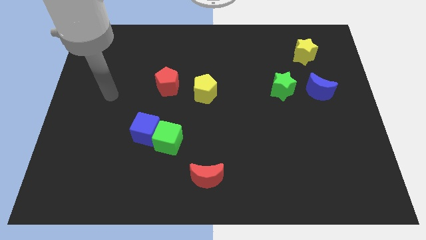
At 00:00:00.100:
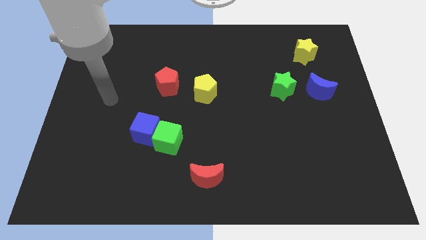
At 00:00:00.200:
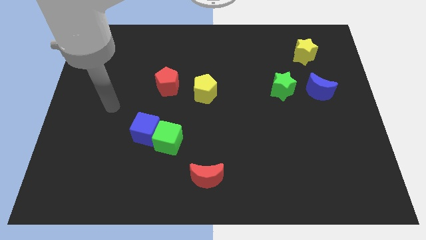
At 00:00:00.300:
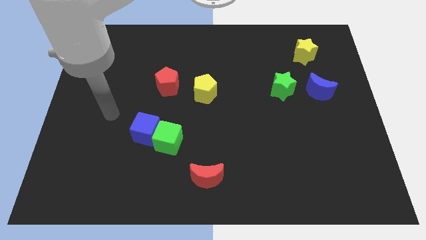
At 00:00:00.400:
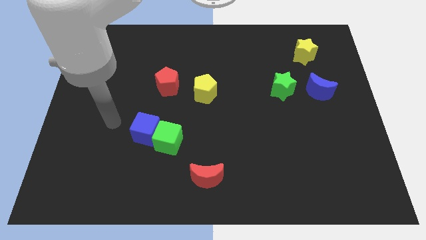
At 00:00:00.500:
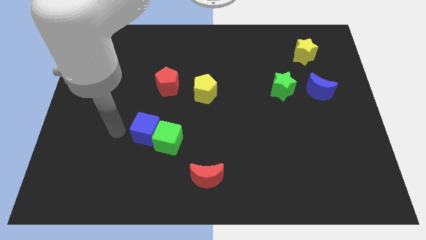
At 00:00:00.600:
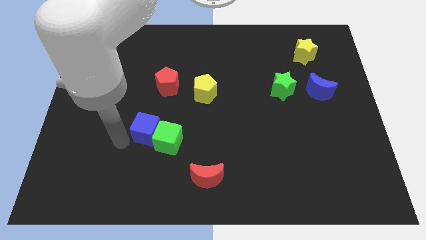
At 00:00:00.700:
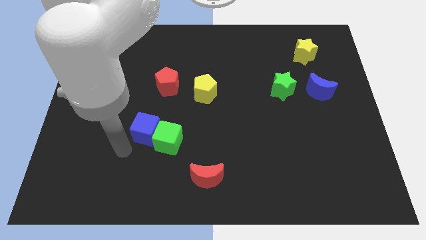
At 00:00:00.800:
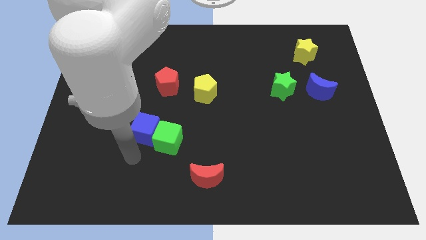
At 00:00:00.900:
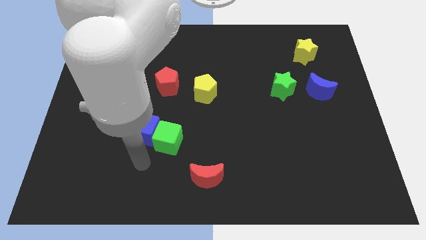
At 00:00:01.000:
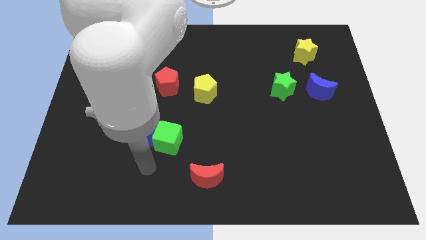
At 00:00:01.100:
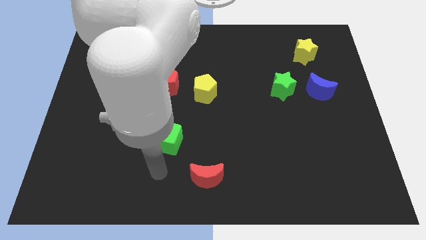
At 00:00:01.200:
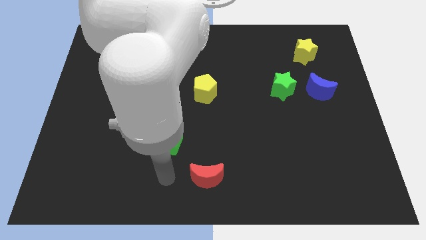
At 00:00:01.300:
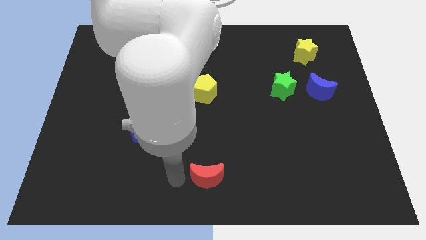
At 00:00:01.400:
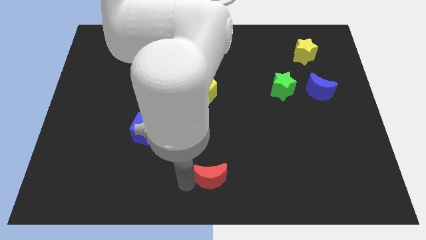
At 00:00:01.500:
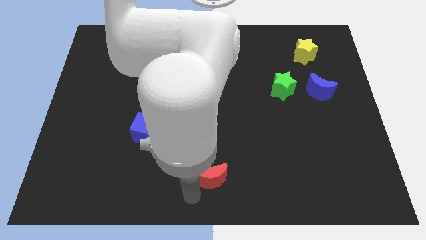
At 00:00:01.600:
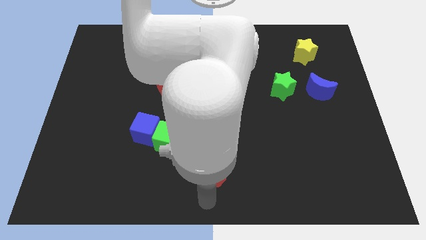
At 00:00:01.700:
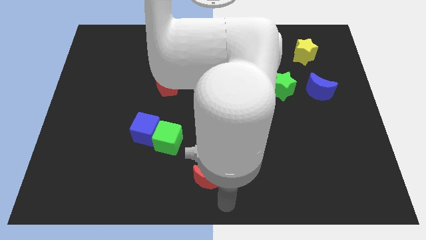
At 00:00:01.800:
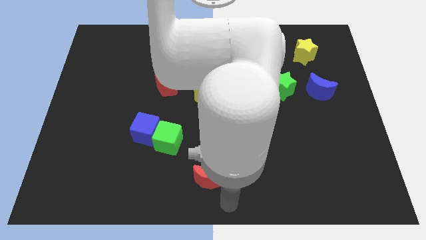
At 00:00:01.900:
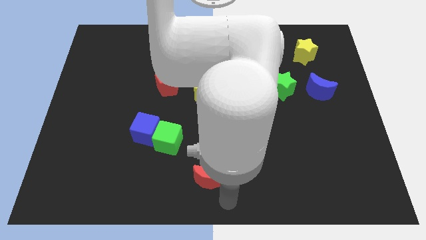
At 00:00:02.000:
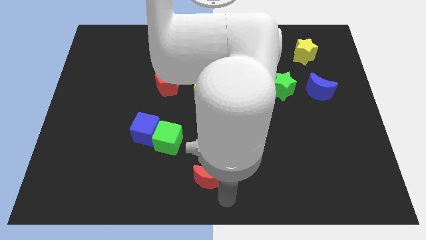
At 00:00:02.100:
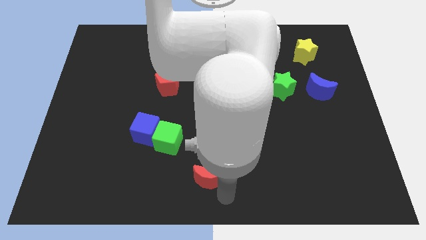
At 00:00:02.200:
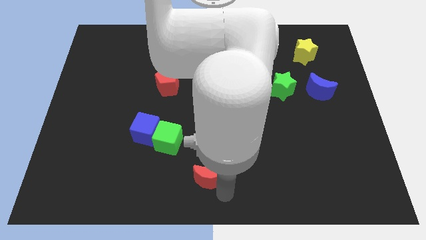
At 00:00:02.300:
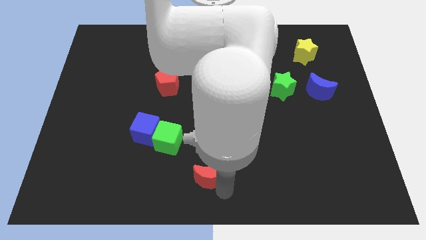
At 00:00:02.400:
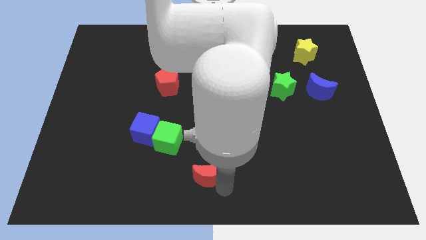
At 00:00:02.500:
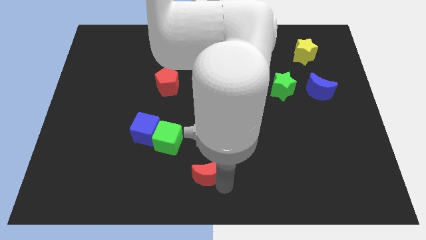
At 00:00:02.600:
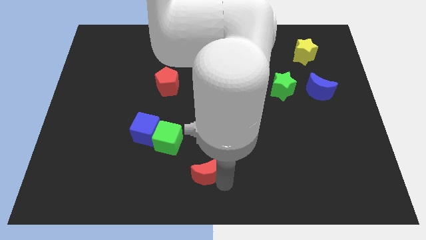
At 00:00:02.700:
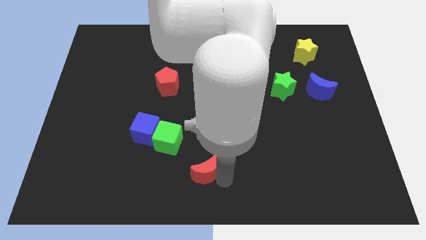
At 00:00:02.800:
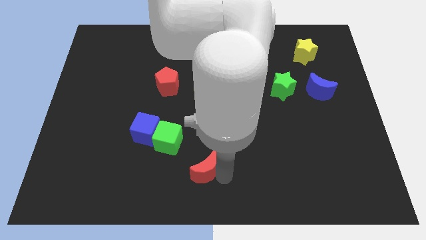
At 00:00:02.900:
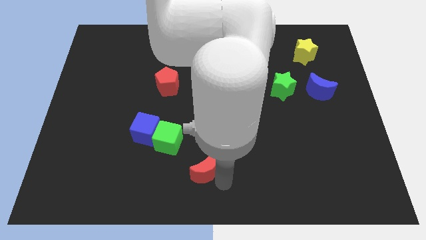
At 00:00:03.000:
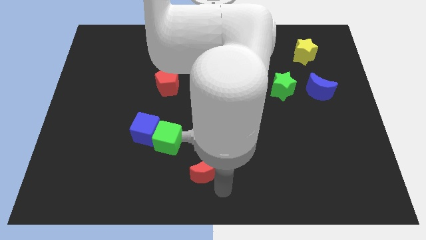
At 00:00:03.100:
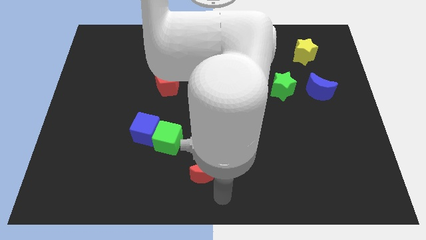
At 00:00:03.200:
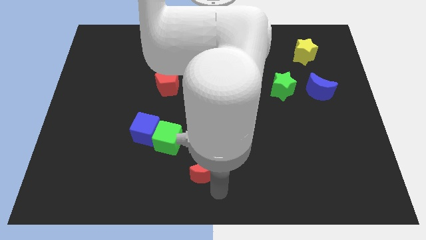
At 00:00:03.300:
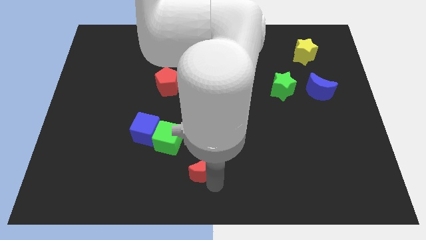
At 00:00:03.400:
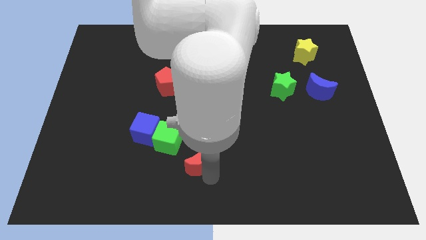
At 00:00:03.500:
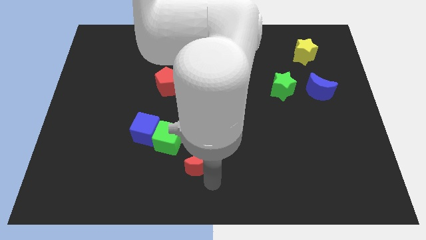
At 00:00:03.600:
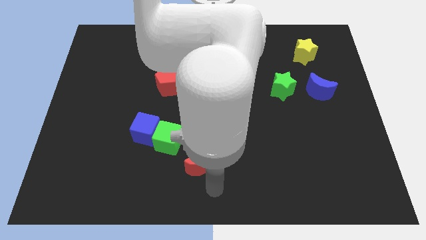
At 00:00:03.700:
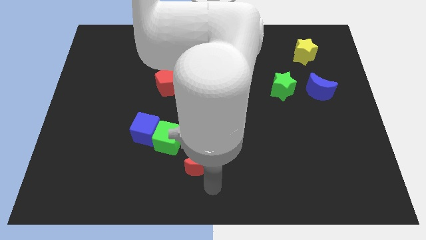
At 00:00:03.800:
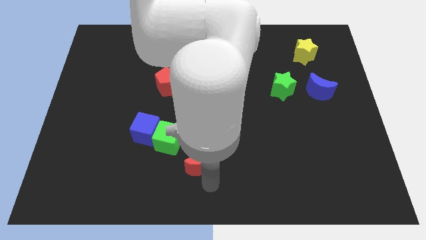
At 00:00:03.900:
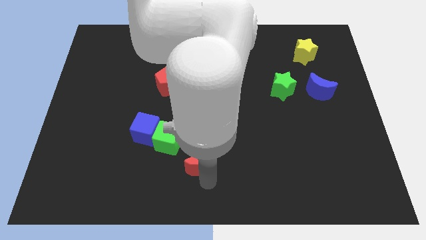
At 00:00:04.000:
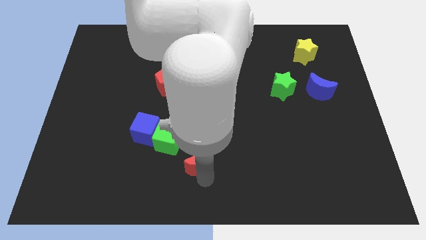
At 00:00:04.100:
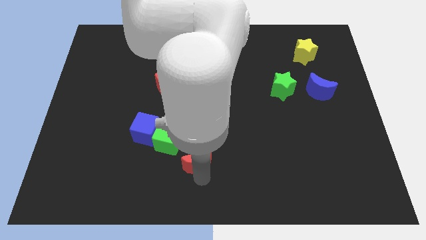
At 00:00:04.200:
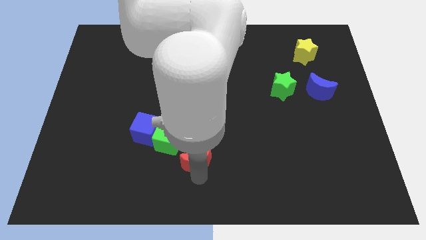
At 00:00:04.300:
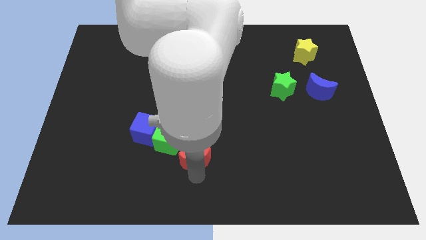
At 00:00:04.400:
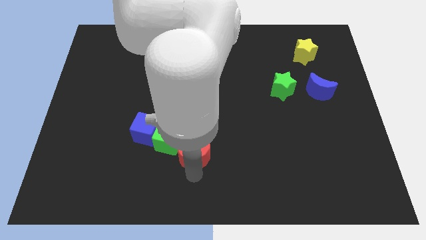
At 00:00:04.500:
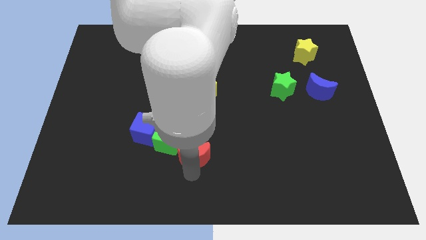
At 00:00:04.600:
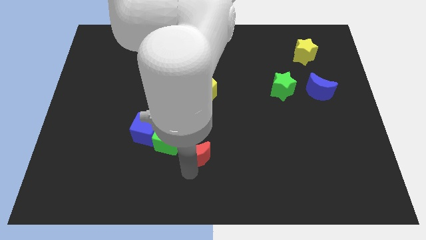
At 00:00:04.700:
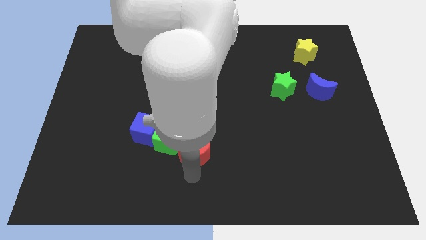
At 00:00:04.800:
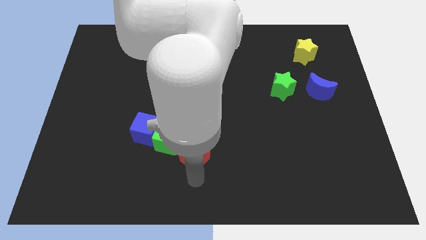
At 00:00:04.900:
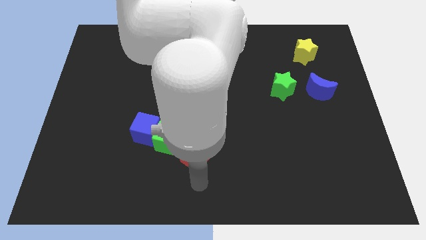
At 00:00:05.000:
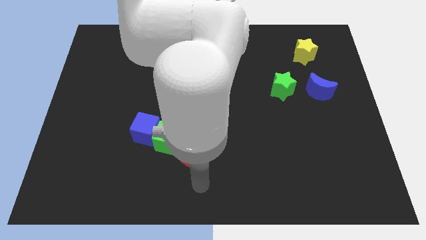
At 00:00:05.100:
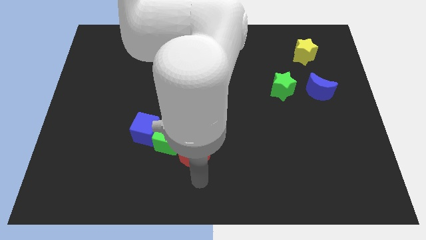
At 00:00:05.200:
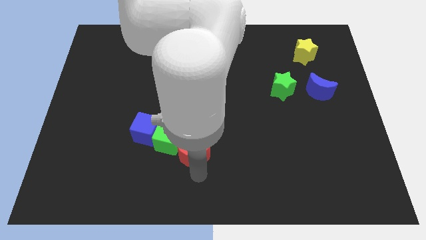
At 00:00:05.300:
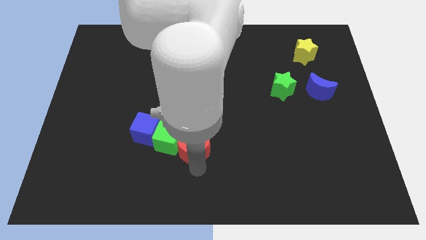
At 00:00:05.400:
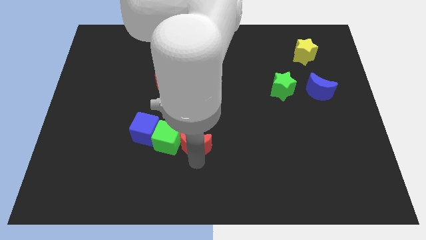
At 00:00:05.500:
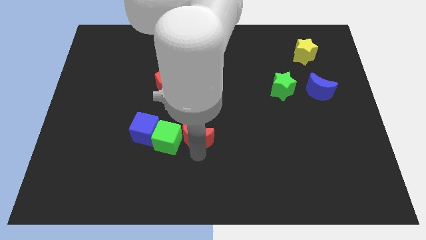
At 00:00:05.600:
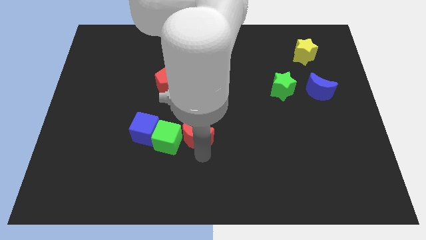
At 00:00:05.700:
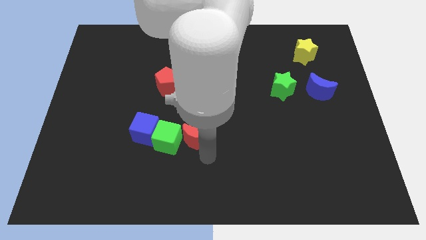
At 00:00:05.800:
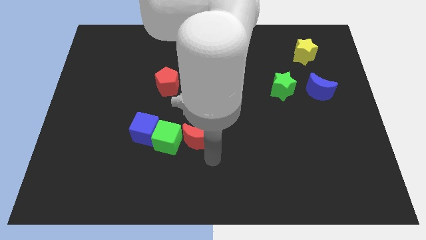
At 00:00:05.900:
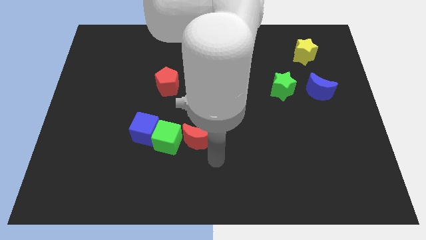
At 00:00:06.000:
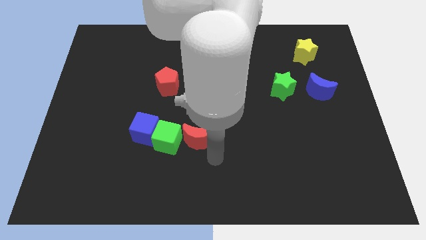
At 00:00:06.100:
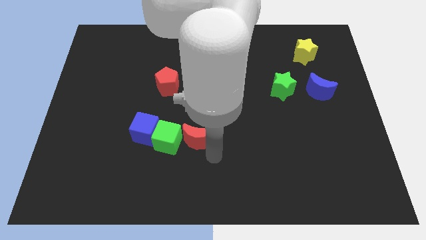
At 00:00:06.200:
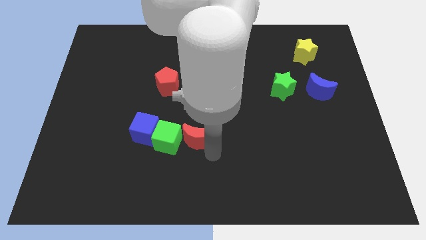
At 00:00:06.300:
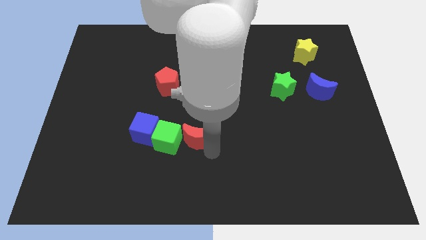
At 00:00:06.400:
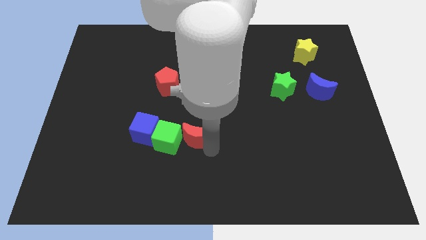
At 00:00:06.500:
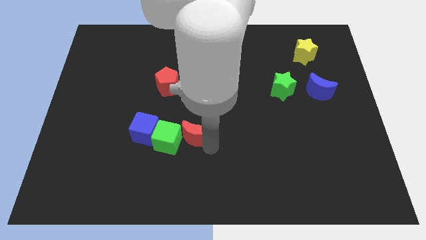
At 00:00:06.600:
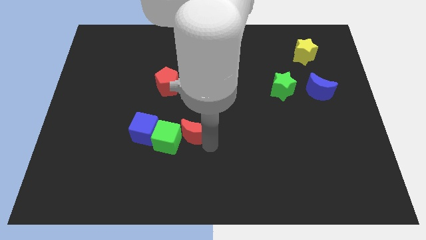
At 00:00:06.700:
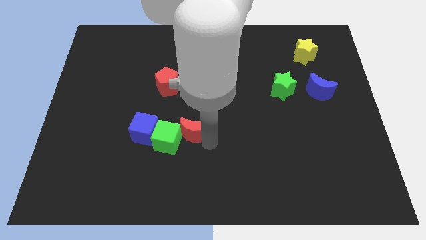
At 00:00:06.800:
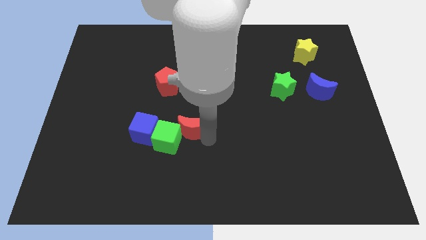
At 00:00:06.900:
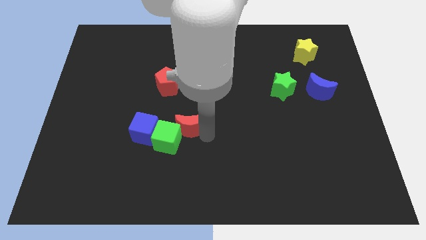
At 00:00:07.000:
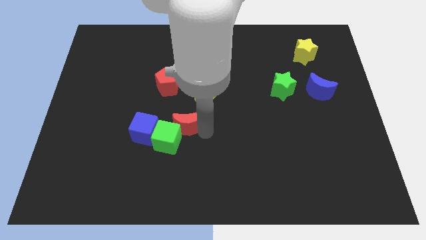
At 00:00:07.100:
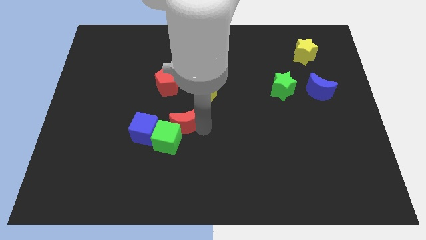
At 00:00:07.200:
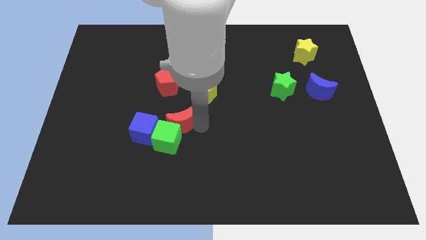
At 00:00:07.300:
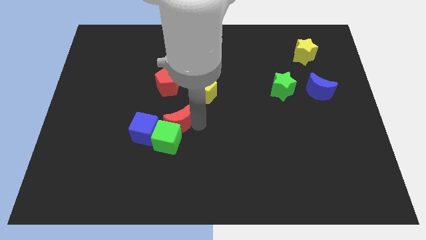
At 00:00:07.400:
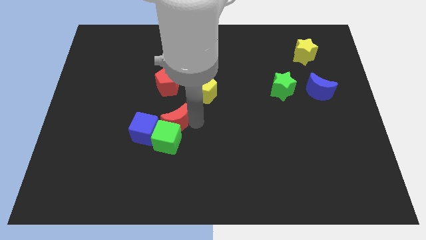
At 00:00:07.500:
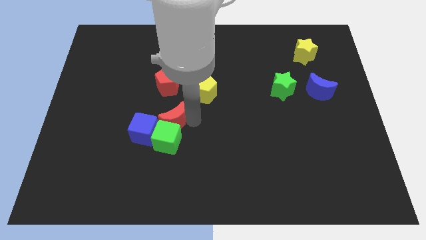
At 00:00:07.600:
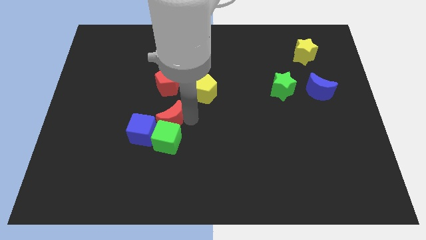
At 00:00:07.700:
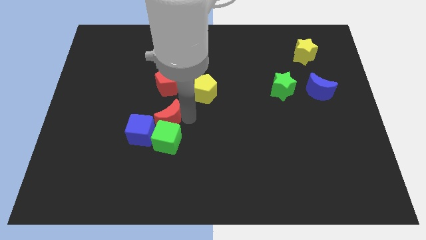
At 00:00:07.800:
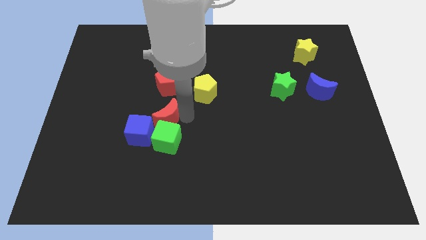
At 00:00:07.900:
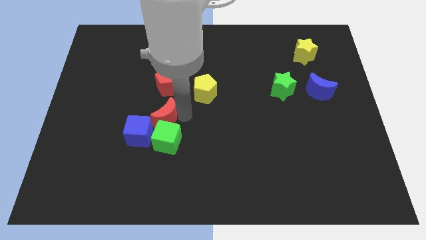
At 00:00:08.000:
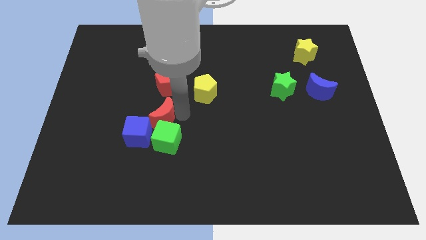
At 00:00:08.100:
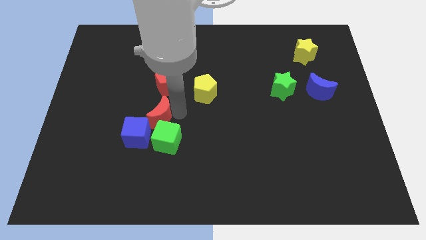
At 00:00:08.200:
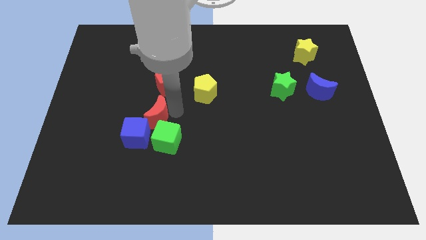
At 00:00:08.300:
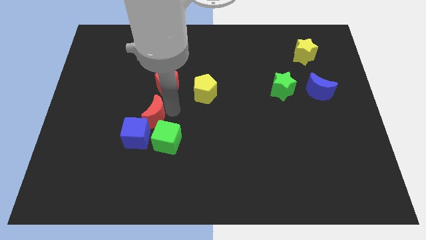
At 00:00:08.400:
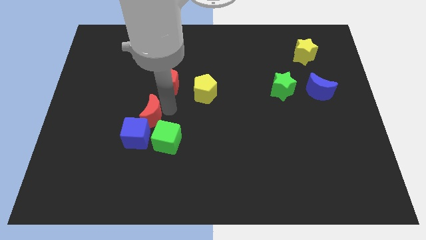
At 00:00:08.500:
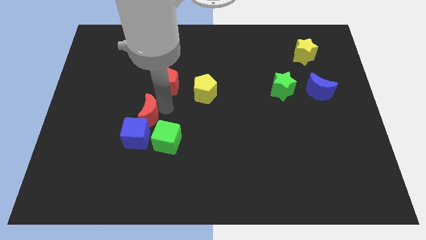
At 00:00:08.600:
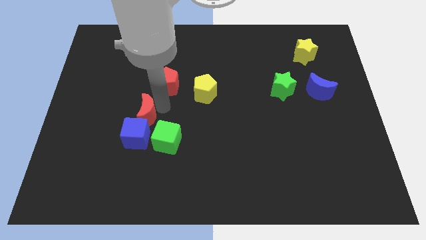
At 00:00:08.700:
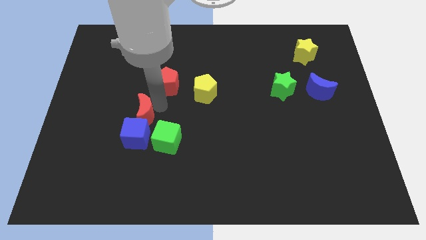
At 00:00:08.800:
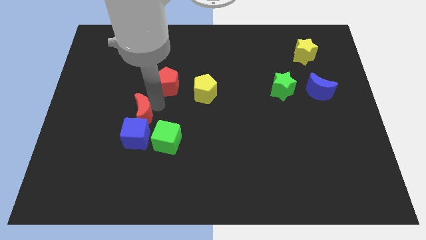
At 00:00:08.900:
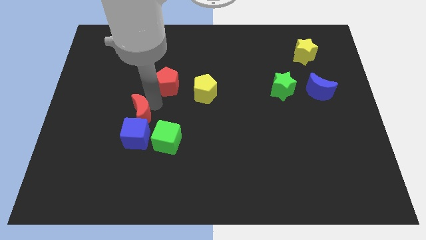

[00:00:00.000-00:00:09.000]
move the red moon to the top left side of the blue cube
